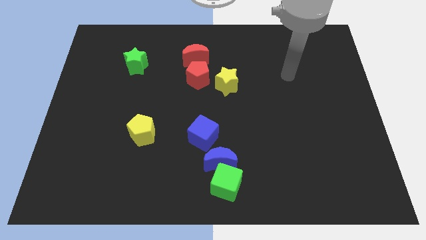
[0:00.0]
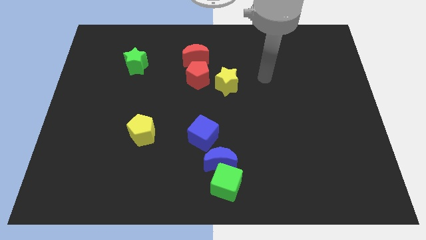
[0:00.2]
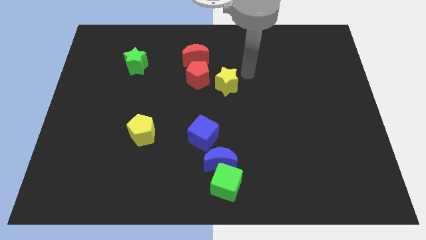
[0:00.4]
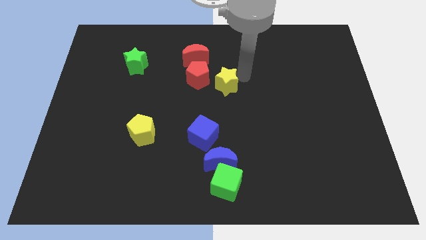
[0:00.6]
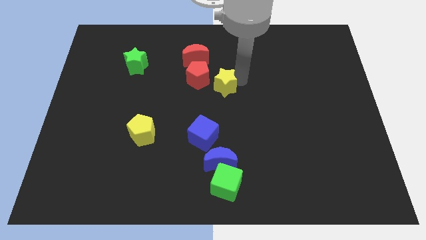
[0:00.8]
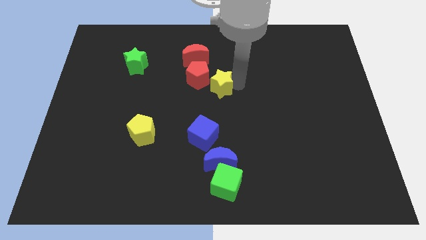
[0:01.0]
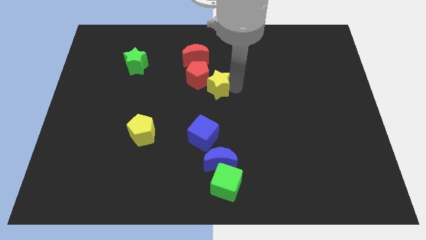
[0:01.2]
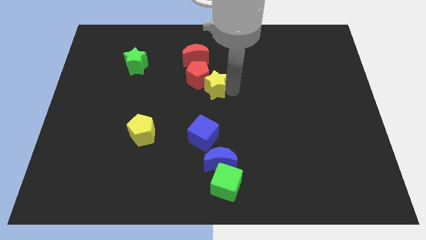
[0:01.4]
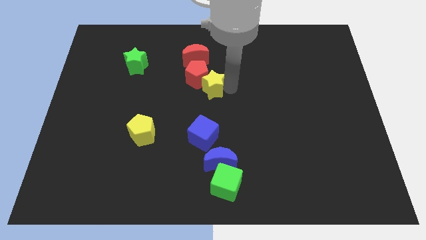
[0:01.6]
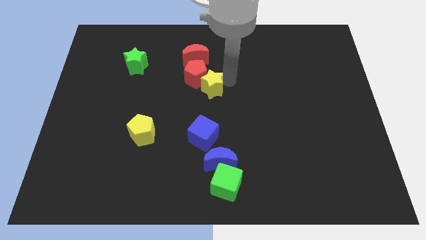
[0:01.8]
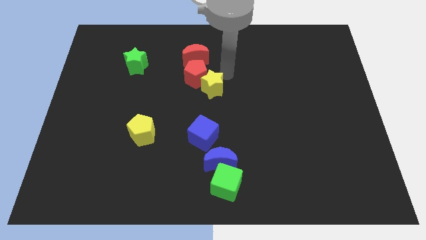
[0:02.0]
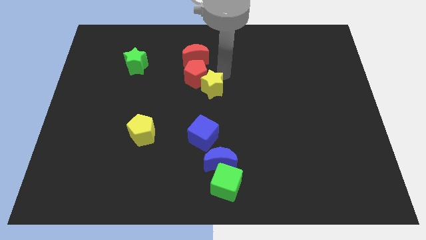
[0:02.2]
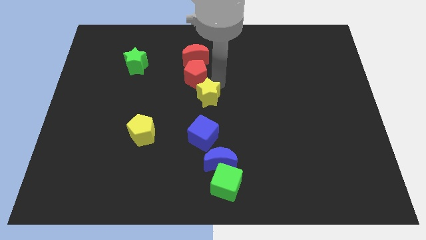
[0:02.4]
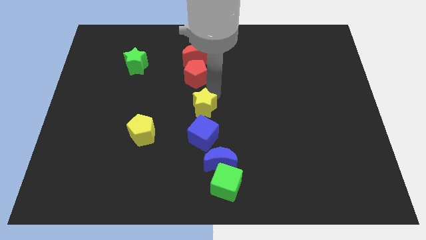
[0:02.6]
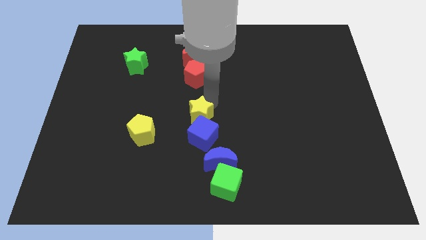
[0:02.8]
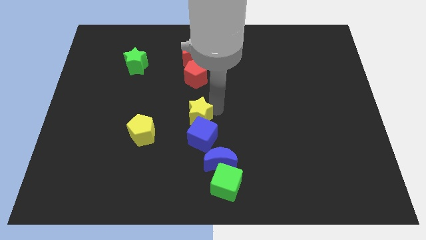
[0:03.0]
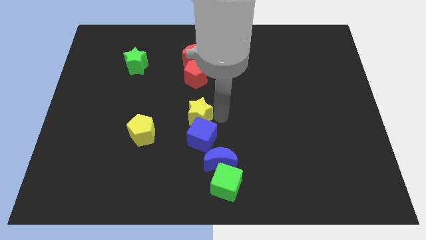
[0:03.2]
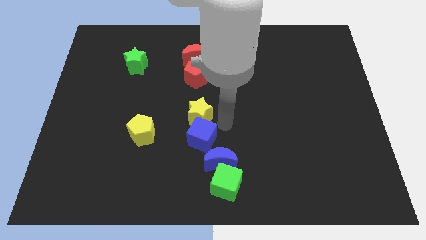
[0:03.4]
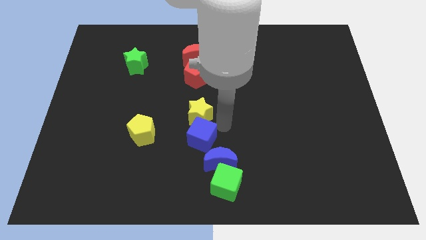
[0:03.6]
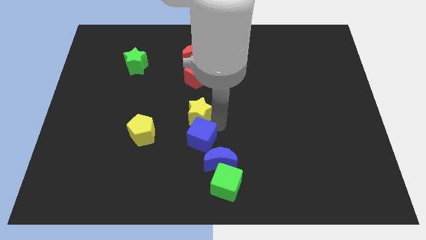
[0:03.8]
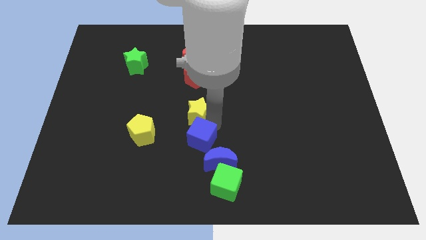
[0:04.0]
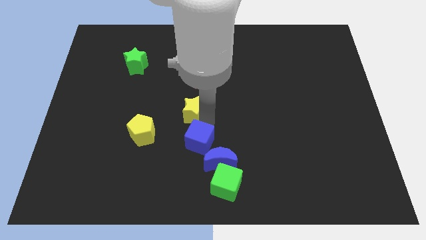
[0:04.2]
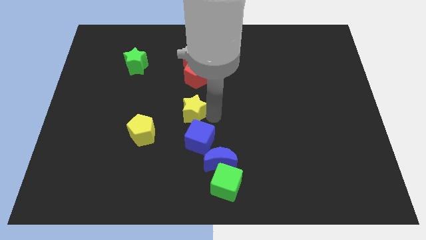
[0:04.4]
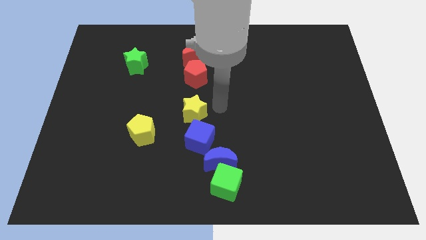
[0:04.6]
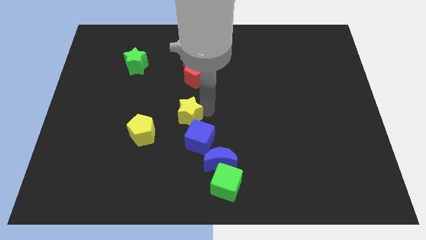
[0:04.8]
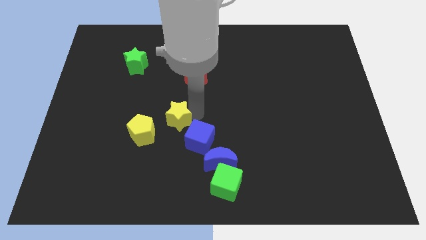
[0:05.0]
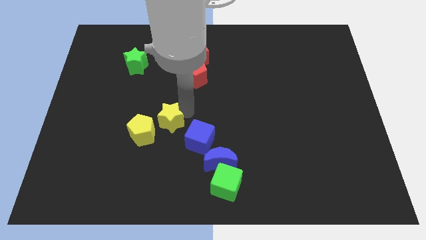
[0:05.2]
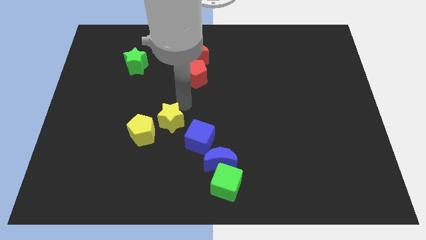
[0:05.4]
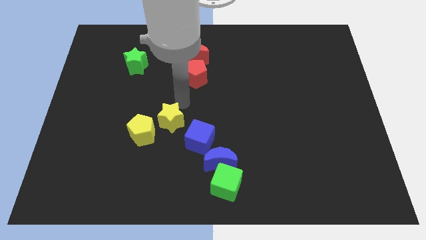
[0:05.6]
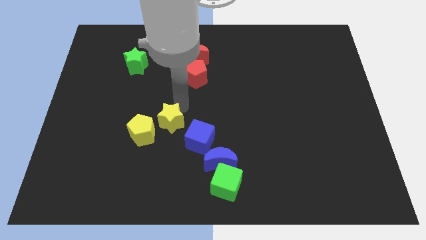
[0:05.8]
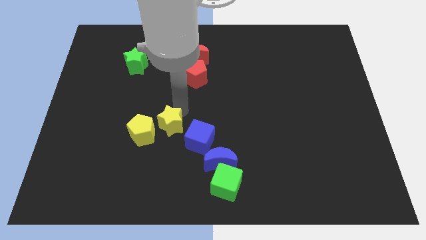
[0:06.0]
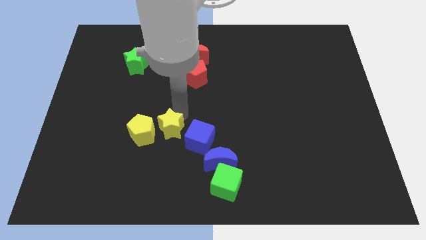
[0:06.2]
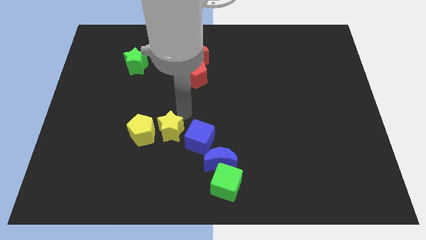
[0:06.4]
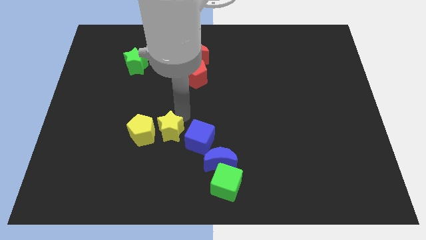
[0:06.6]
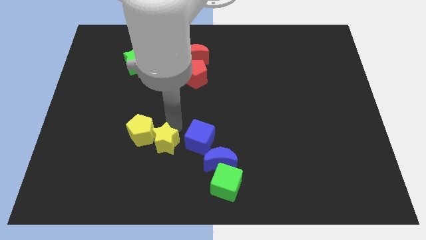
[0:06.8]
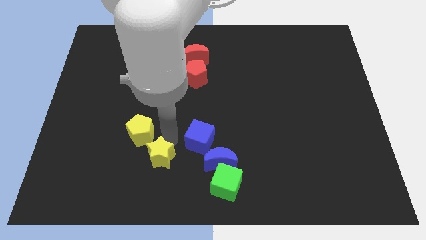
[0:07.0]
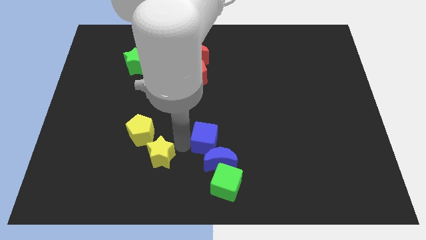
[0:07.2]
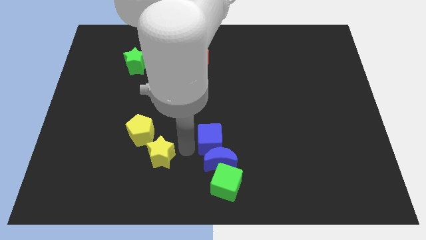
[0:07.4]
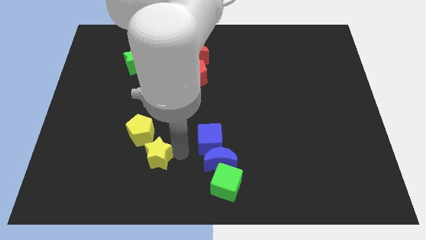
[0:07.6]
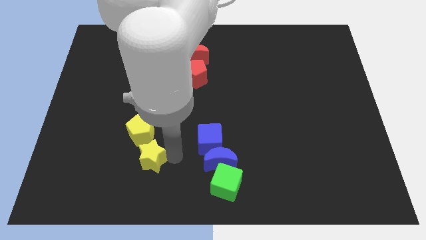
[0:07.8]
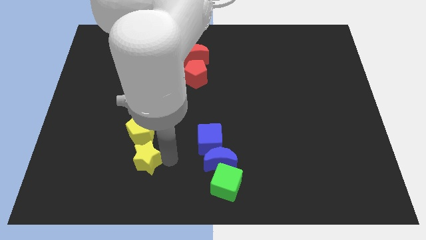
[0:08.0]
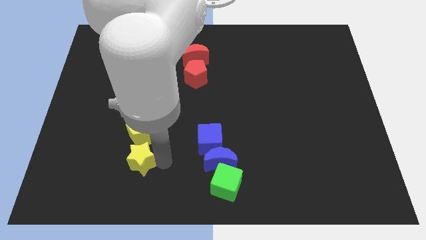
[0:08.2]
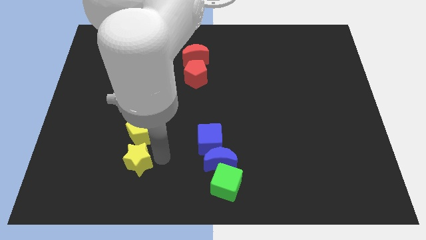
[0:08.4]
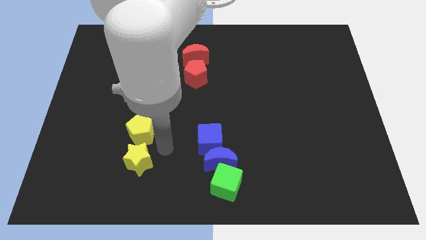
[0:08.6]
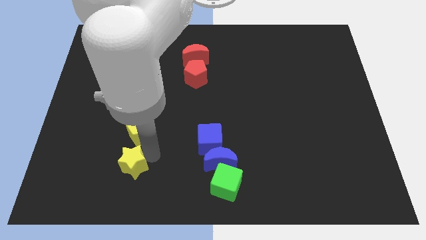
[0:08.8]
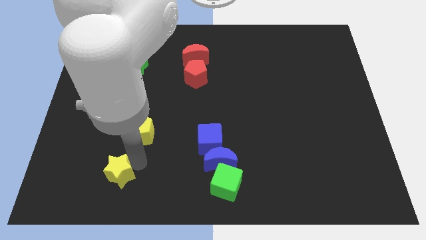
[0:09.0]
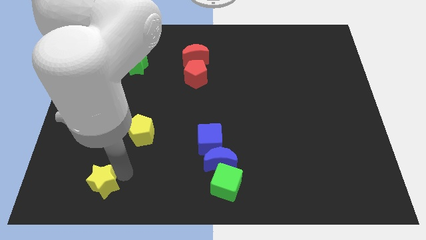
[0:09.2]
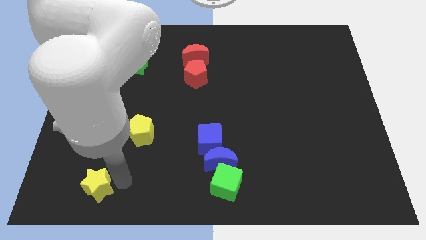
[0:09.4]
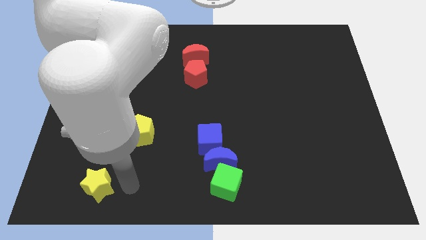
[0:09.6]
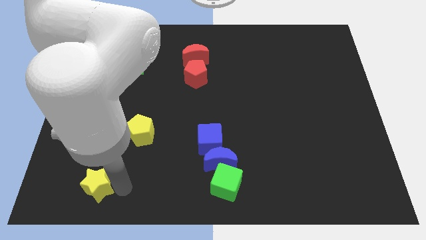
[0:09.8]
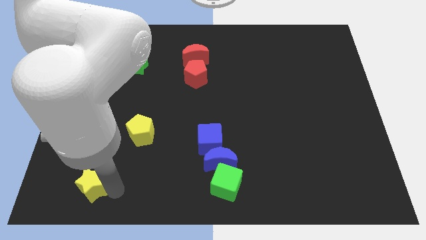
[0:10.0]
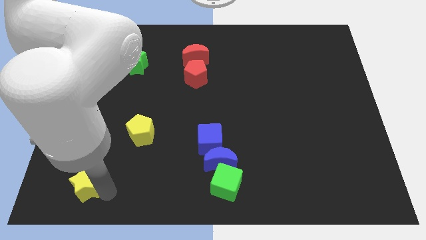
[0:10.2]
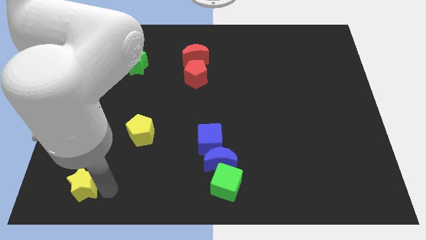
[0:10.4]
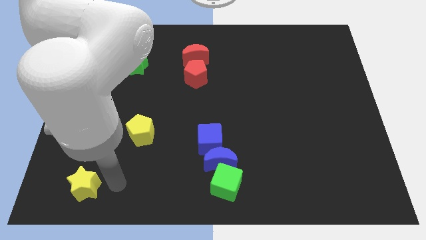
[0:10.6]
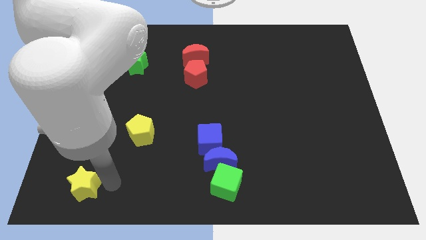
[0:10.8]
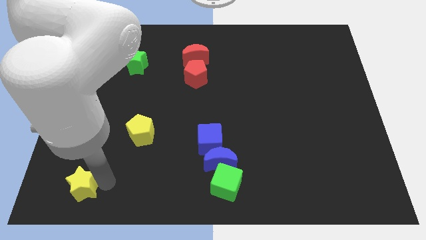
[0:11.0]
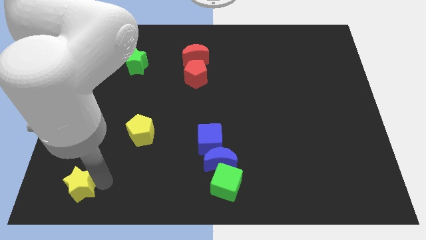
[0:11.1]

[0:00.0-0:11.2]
move the yellow star to the lower left corner
